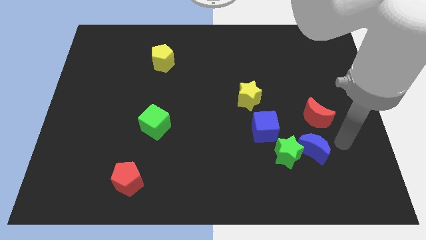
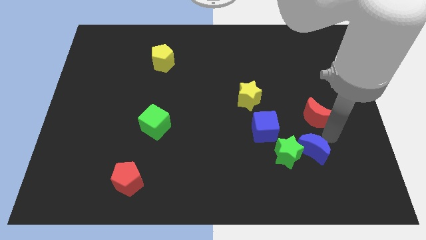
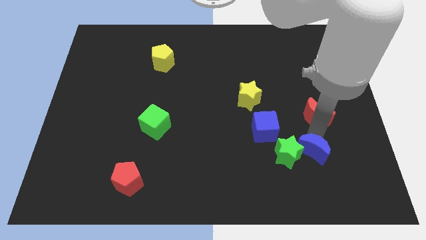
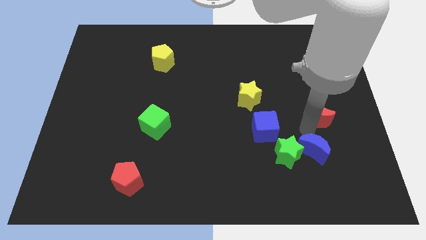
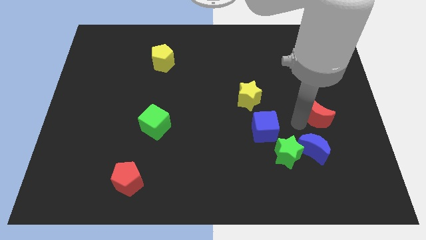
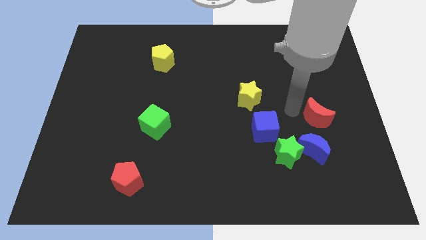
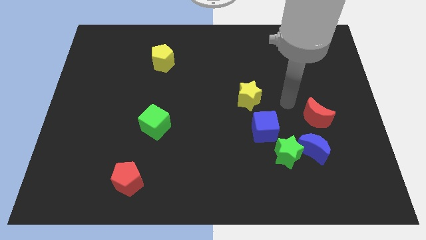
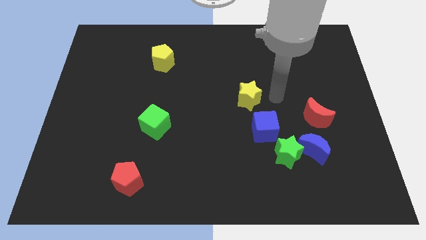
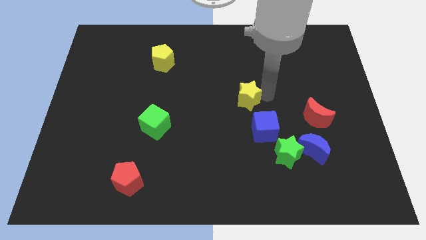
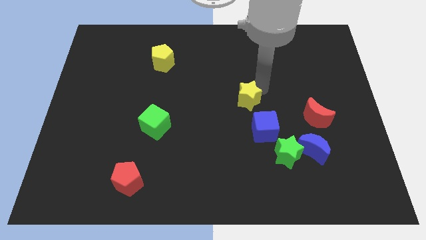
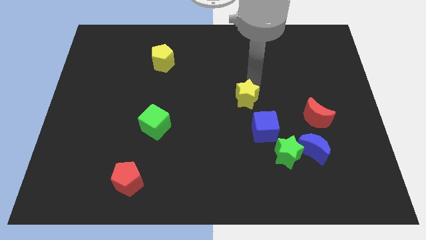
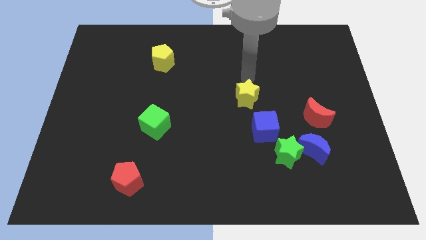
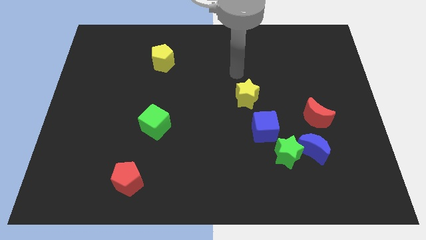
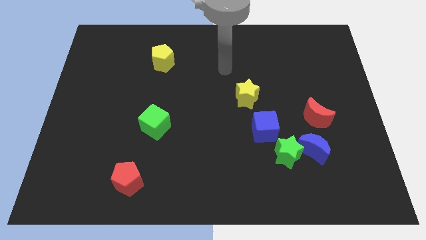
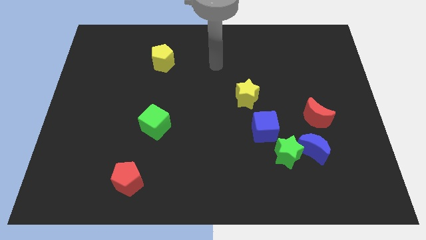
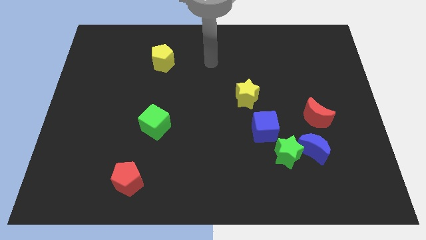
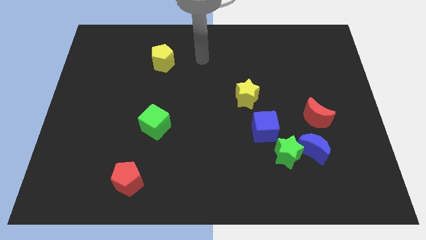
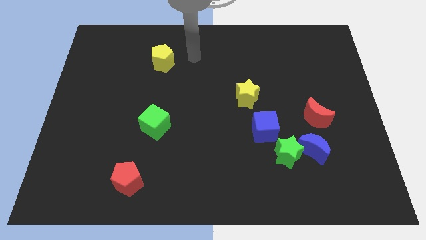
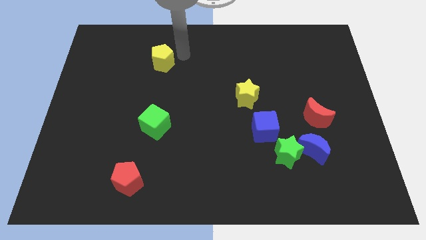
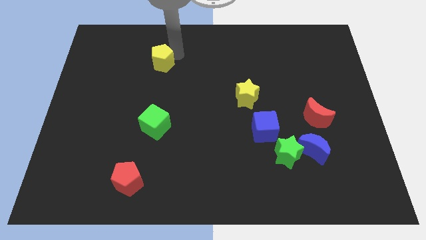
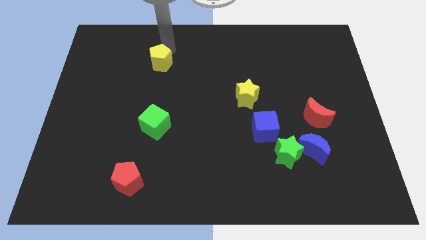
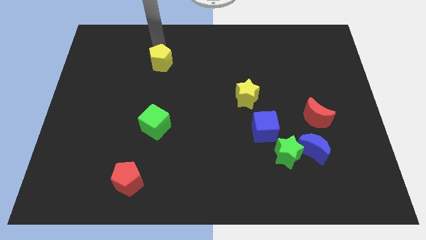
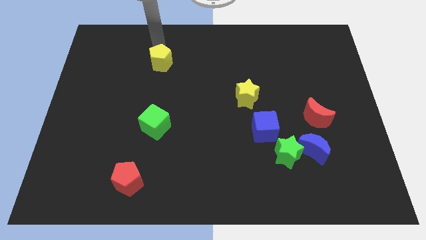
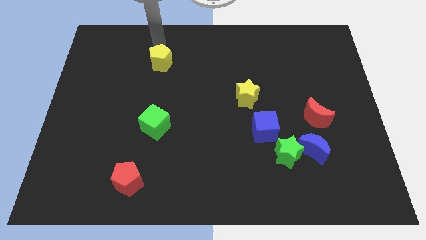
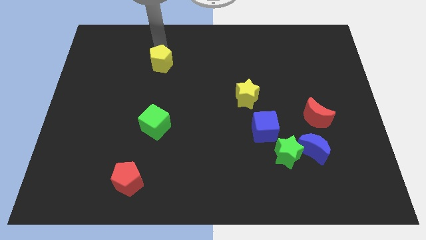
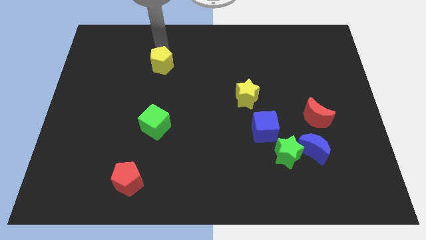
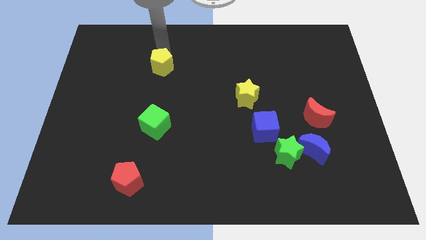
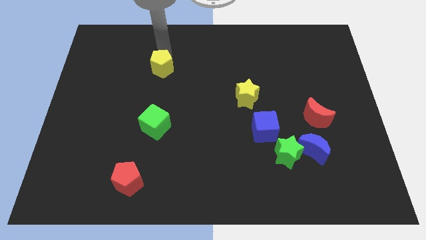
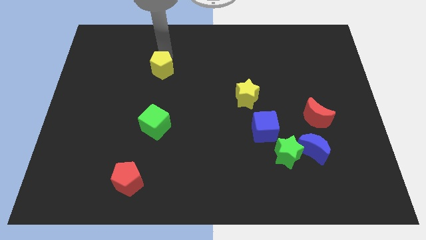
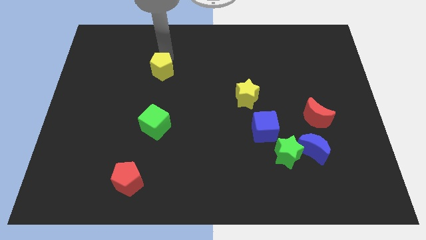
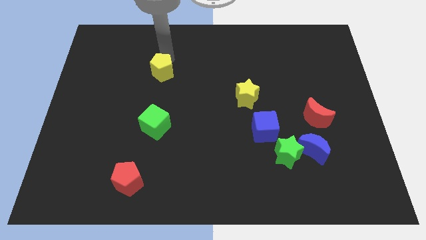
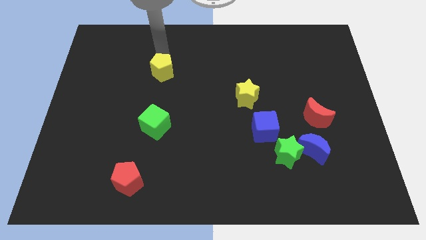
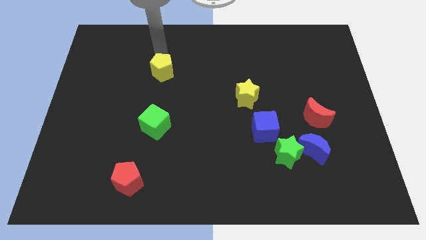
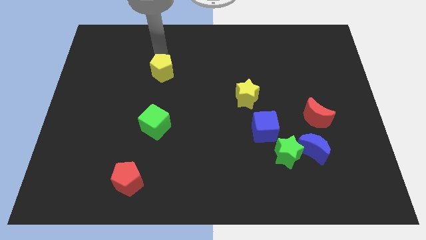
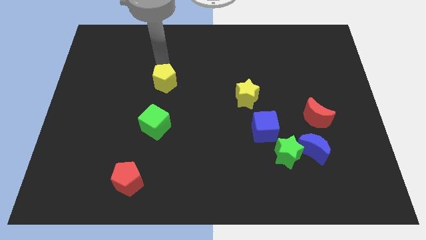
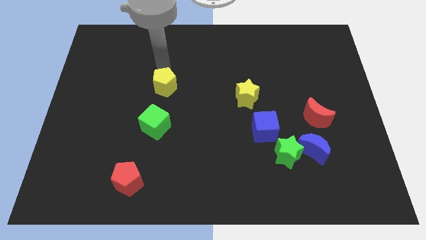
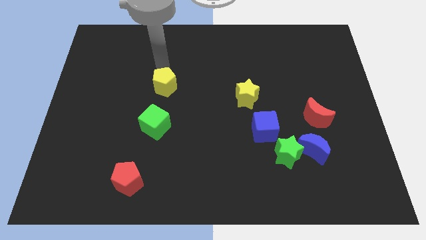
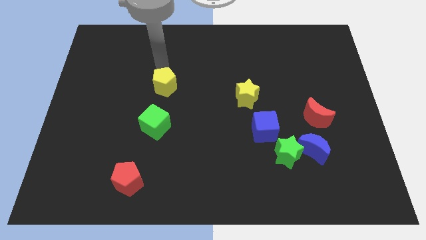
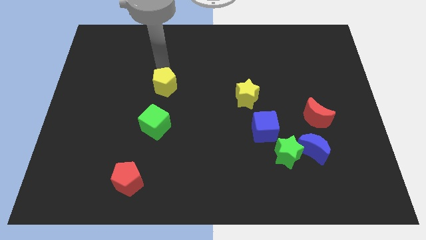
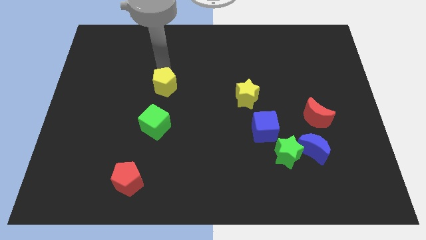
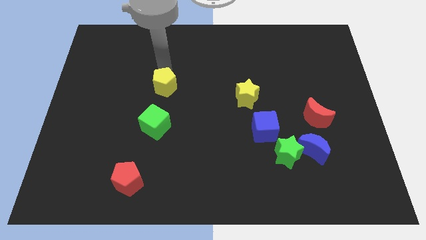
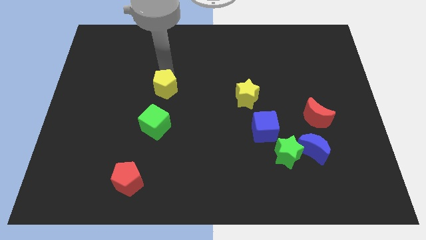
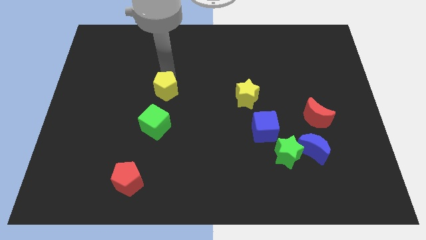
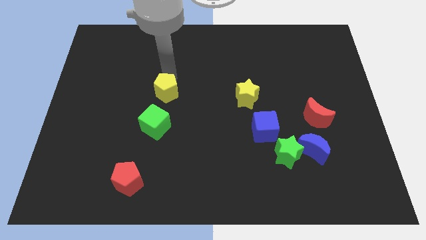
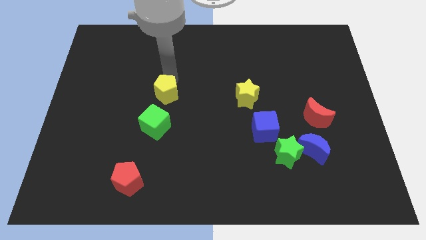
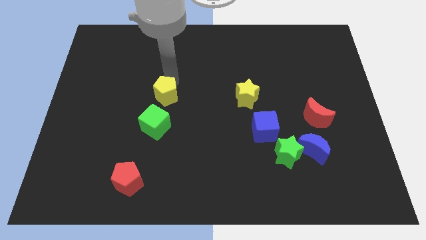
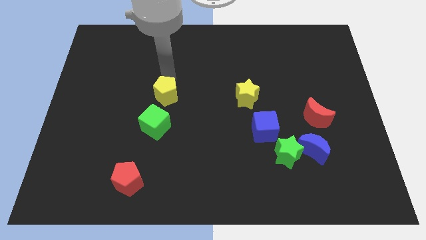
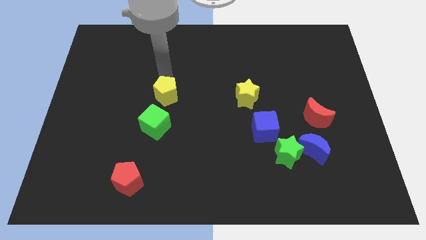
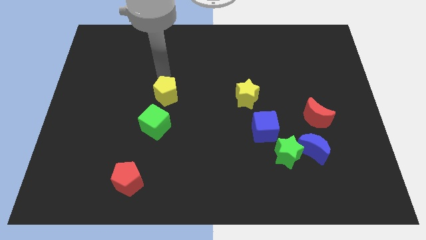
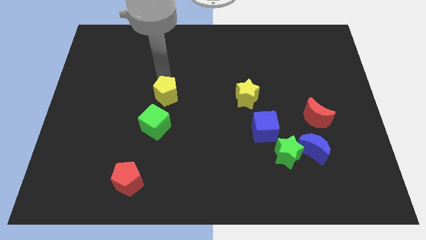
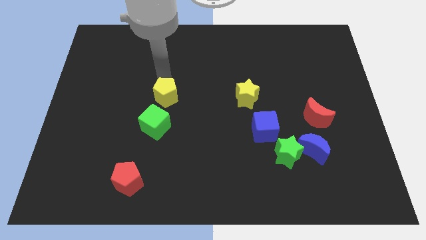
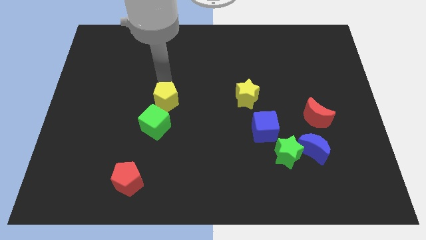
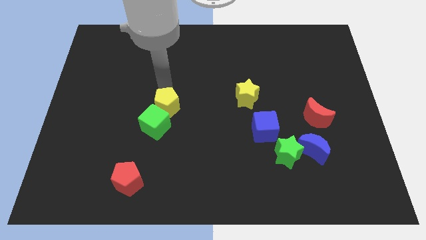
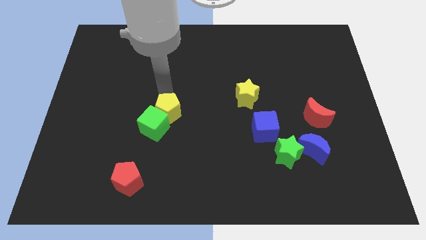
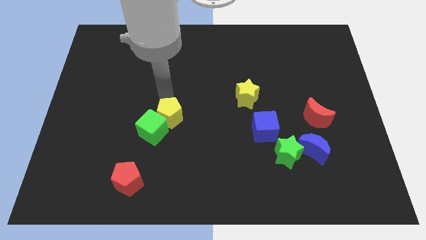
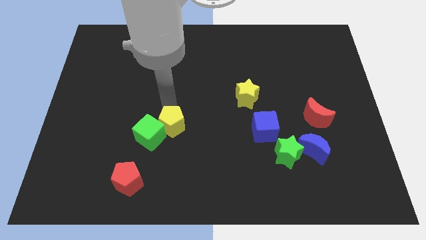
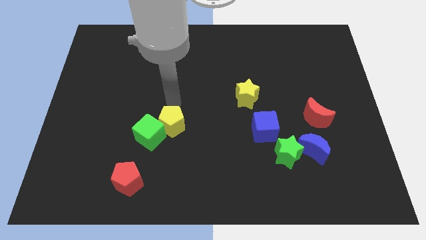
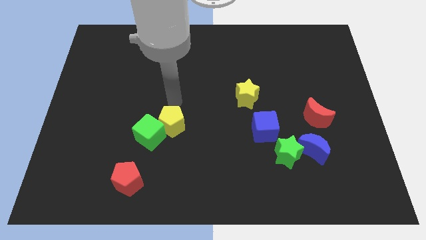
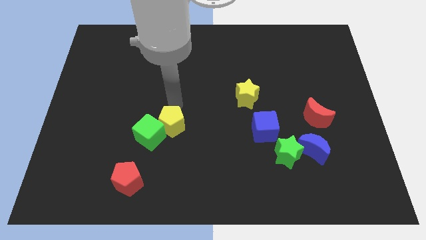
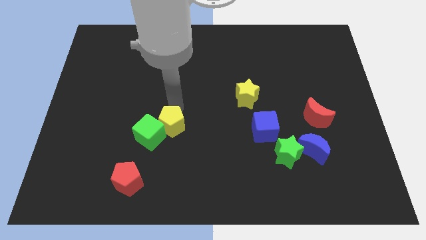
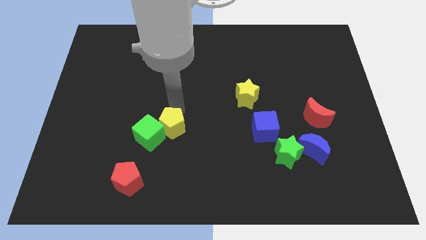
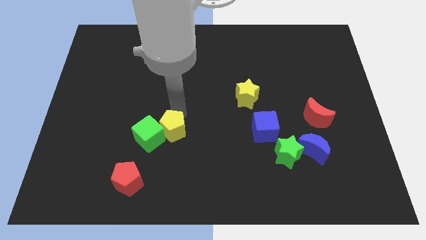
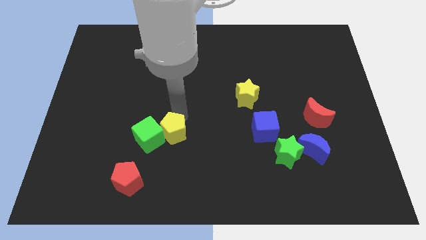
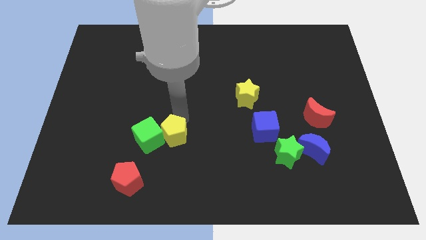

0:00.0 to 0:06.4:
push the yellow pentagon to the bottom right side of the green cube
